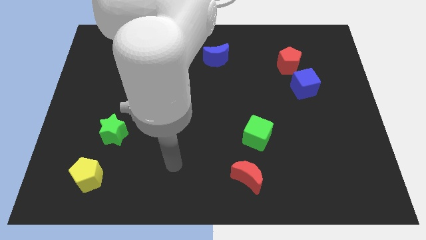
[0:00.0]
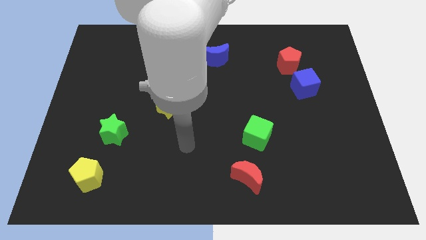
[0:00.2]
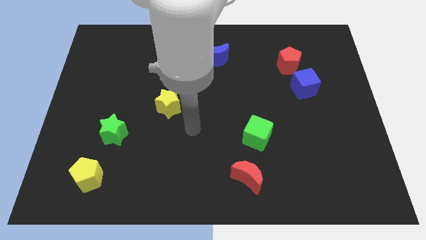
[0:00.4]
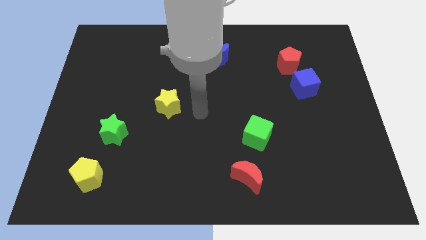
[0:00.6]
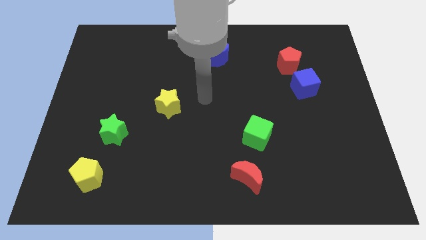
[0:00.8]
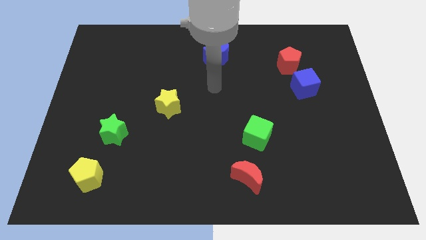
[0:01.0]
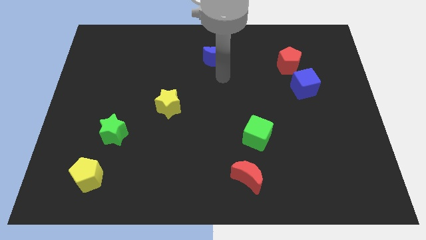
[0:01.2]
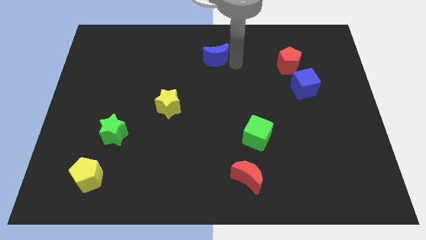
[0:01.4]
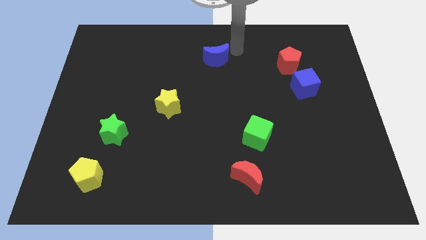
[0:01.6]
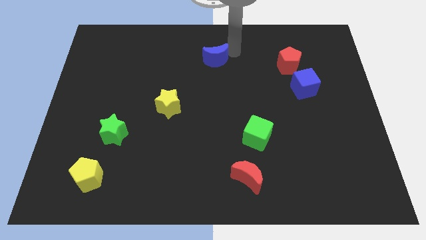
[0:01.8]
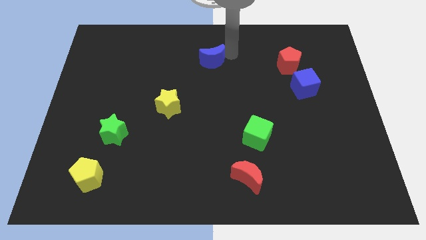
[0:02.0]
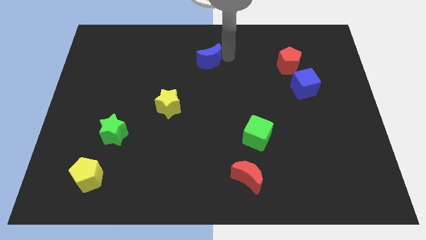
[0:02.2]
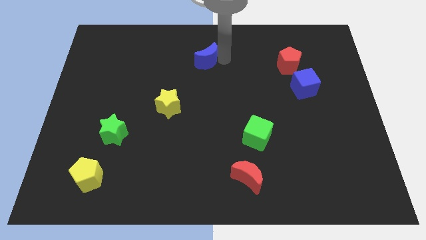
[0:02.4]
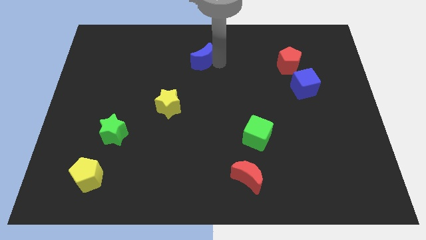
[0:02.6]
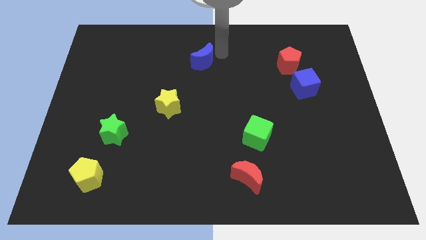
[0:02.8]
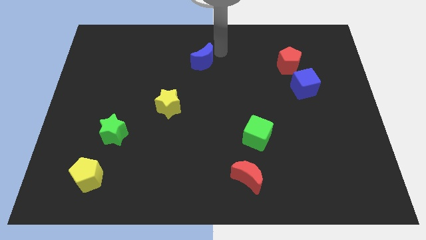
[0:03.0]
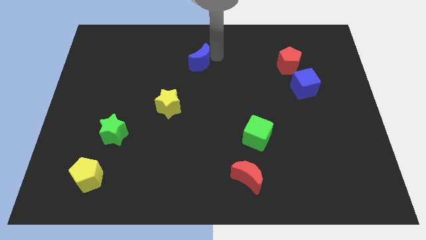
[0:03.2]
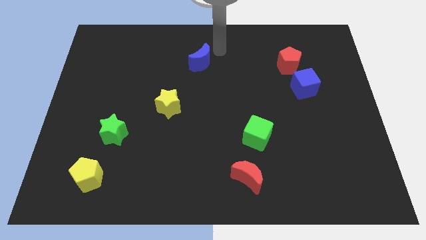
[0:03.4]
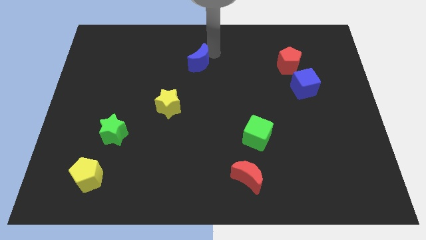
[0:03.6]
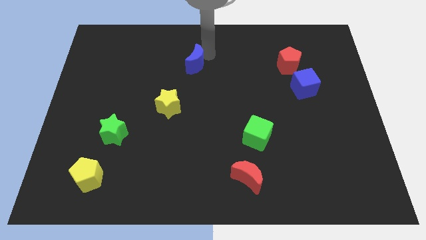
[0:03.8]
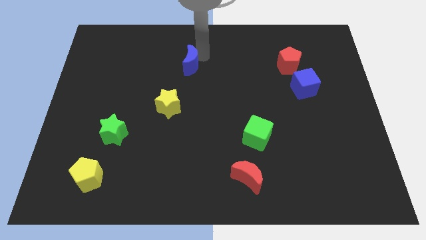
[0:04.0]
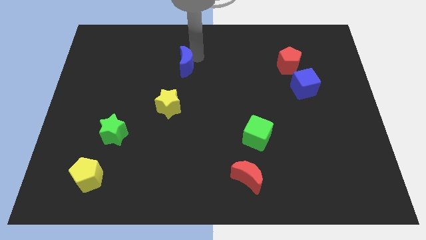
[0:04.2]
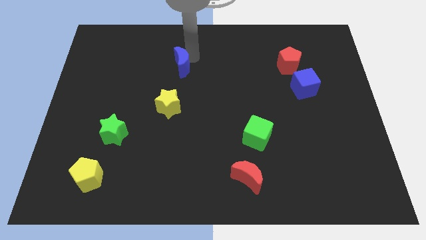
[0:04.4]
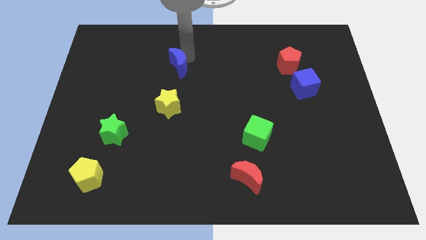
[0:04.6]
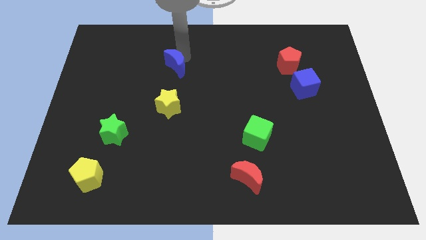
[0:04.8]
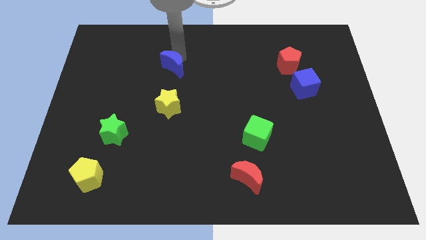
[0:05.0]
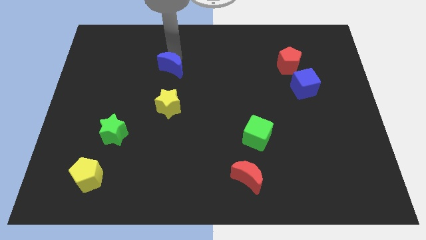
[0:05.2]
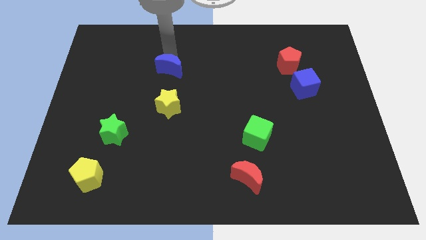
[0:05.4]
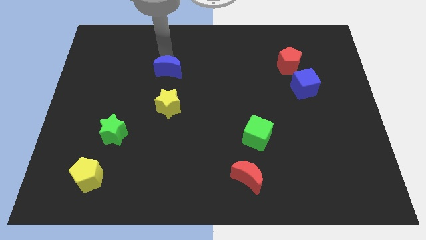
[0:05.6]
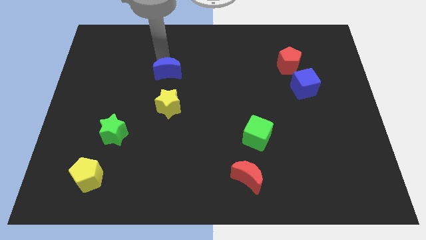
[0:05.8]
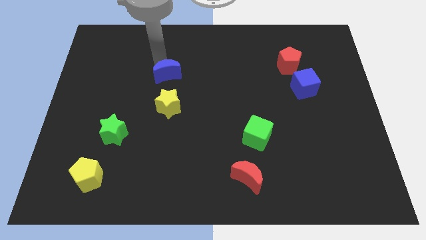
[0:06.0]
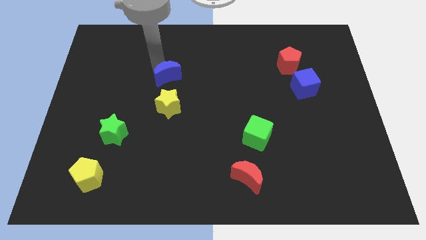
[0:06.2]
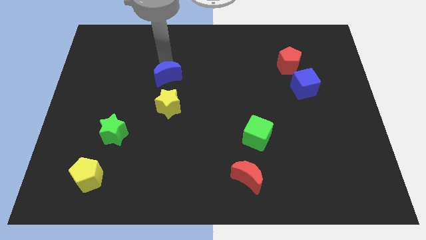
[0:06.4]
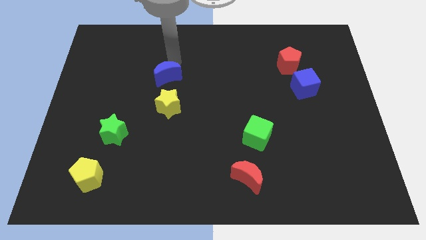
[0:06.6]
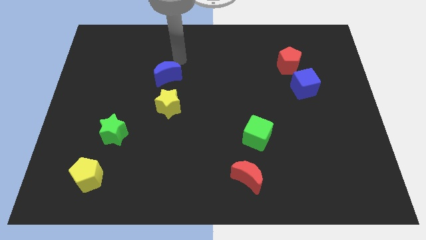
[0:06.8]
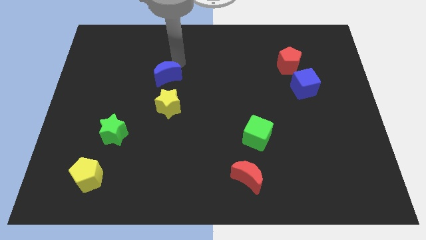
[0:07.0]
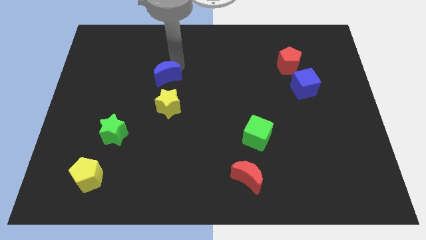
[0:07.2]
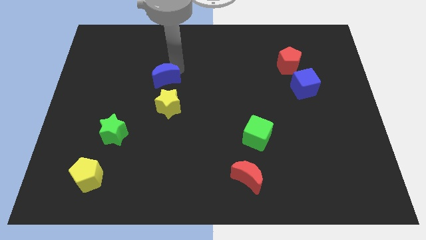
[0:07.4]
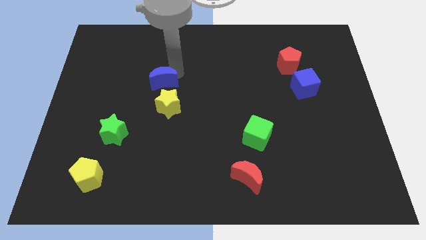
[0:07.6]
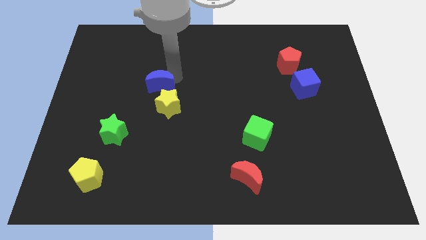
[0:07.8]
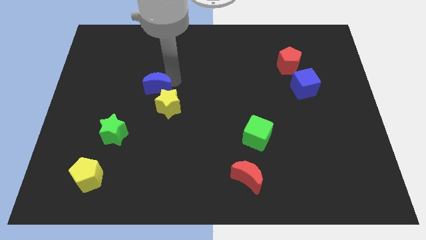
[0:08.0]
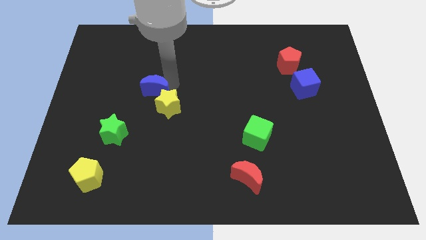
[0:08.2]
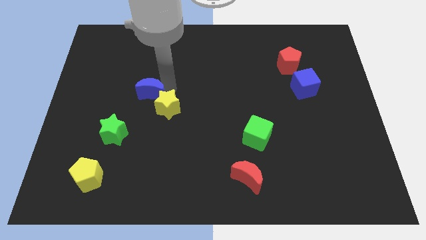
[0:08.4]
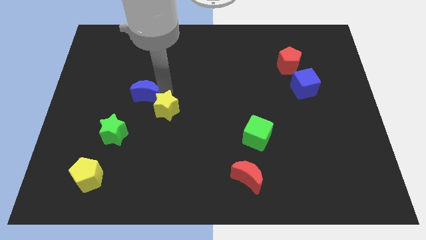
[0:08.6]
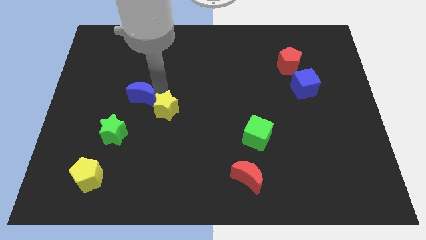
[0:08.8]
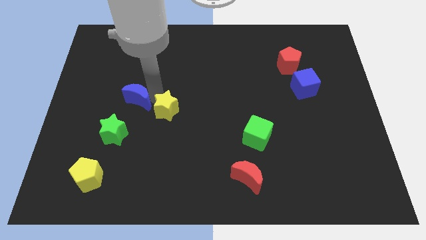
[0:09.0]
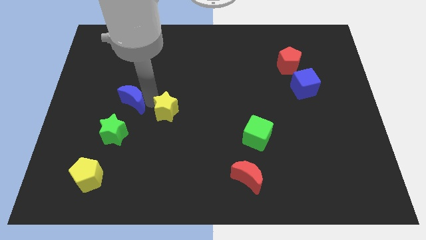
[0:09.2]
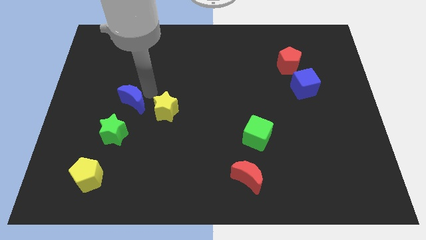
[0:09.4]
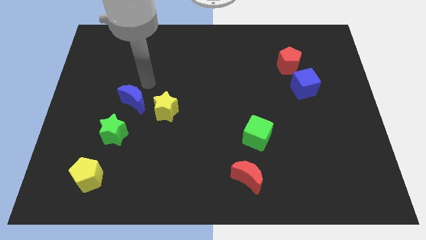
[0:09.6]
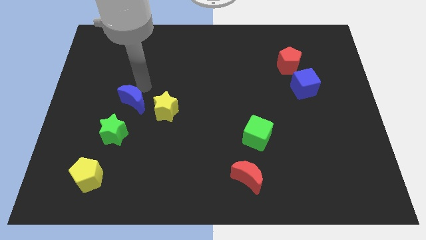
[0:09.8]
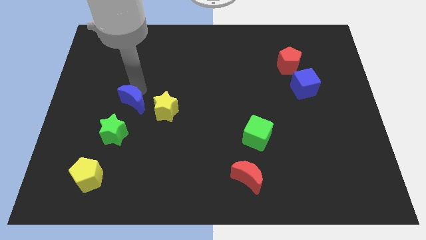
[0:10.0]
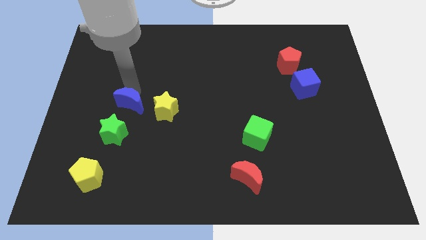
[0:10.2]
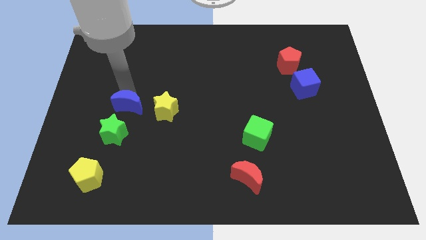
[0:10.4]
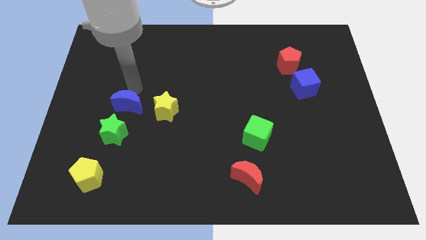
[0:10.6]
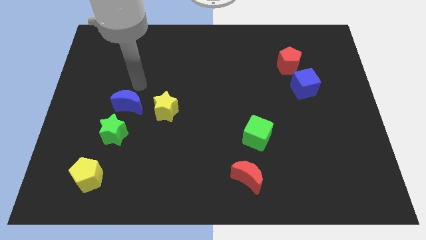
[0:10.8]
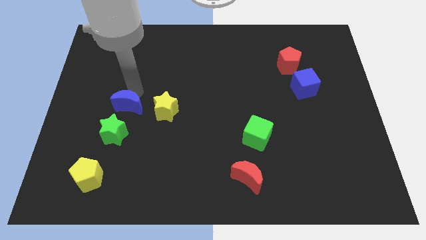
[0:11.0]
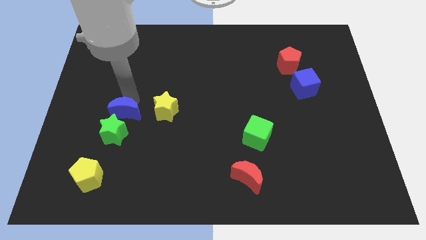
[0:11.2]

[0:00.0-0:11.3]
slide the blue moon close to the green star

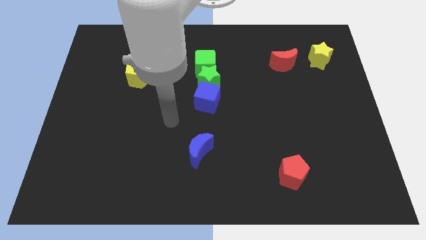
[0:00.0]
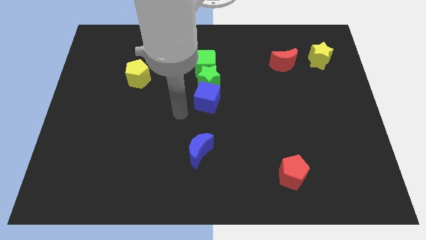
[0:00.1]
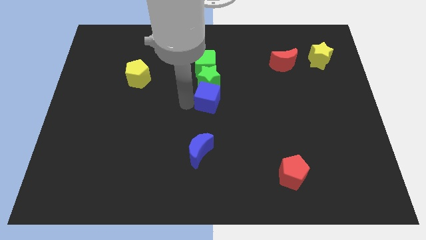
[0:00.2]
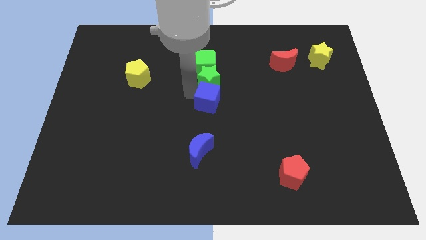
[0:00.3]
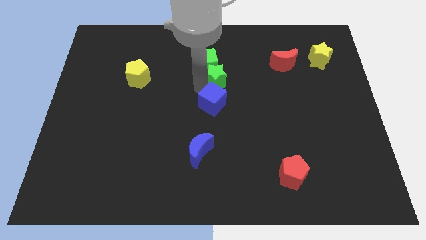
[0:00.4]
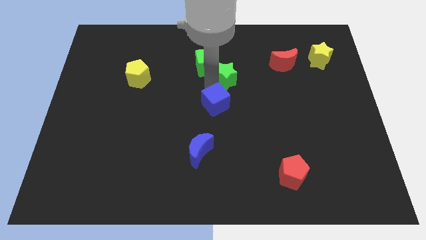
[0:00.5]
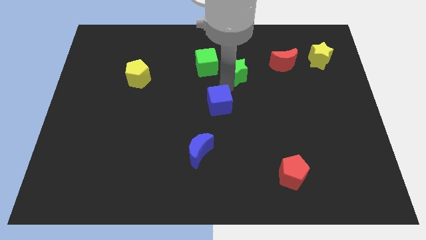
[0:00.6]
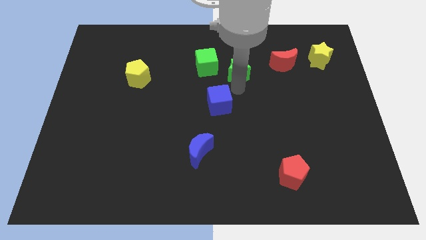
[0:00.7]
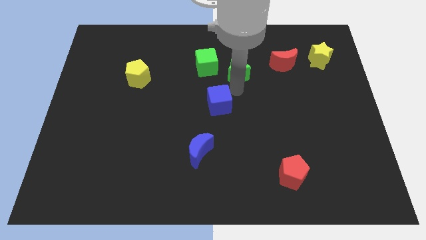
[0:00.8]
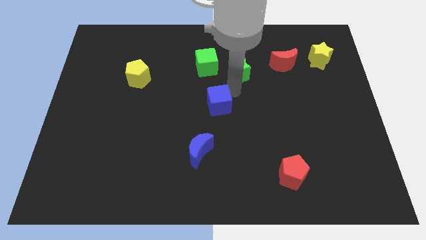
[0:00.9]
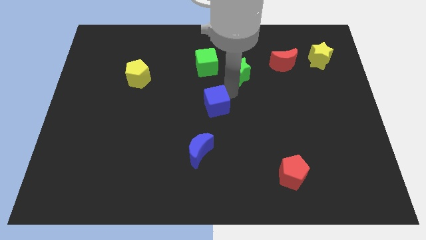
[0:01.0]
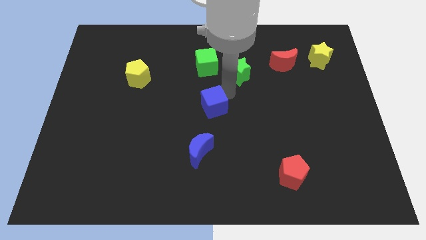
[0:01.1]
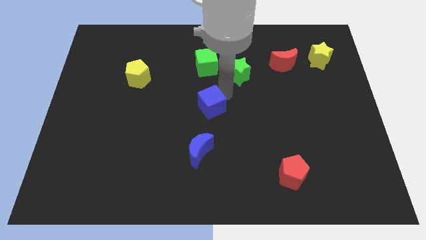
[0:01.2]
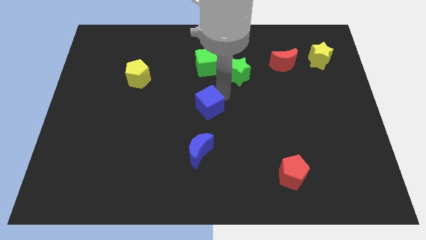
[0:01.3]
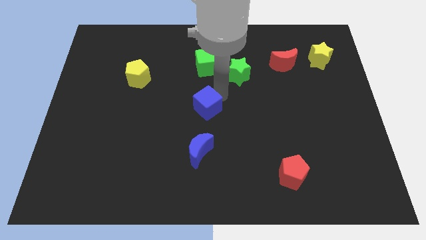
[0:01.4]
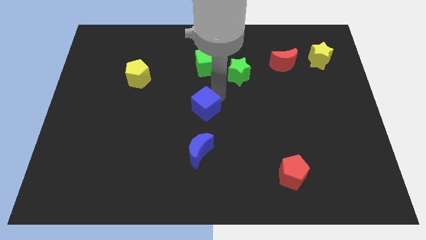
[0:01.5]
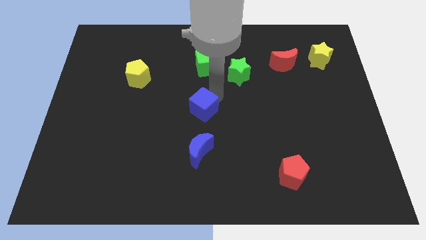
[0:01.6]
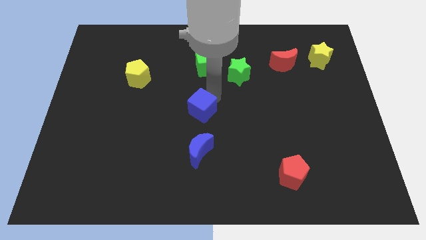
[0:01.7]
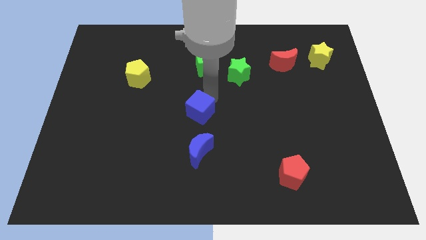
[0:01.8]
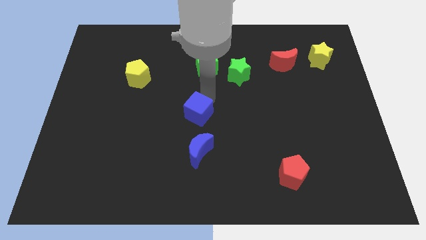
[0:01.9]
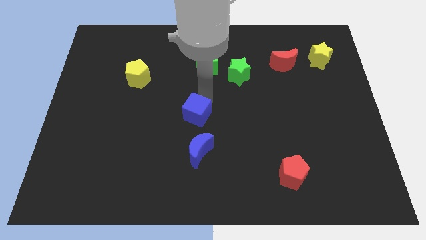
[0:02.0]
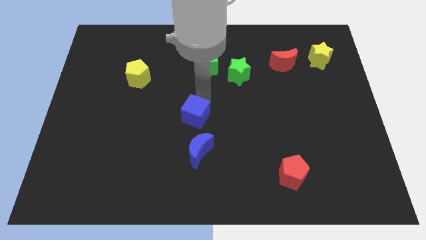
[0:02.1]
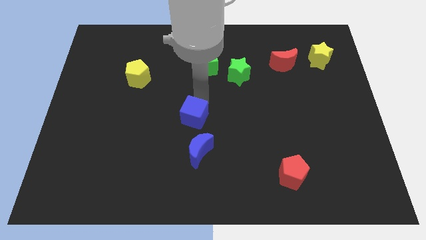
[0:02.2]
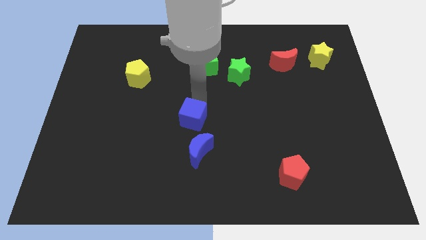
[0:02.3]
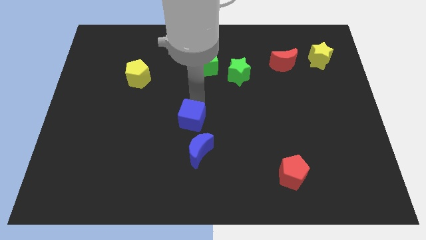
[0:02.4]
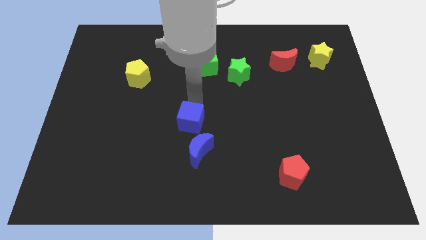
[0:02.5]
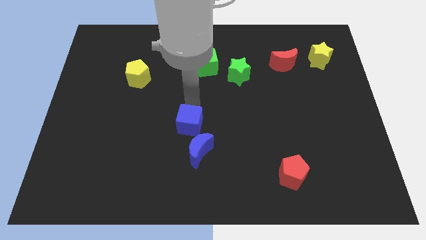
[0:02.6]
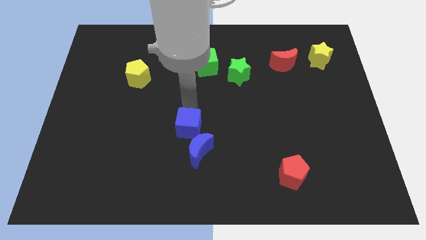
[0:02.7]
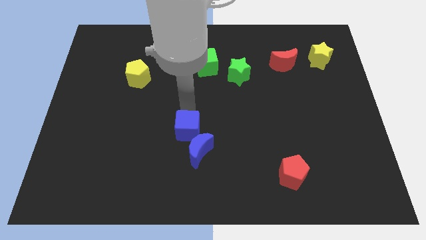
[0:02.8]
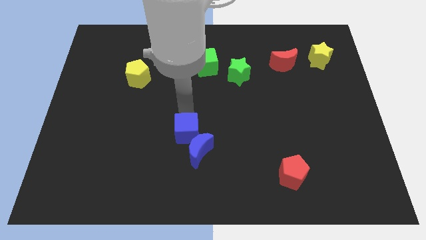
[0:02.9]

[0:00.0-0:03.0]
push the blue cube towards the blue moon
